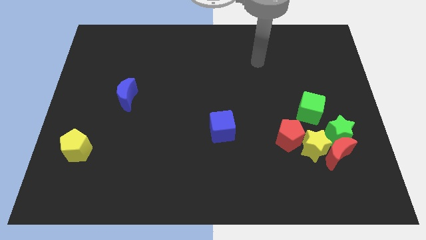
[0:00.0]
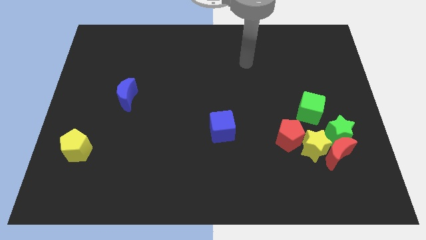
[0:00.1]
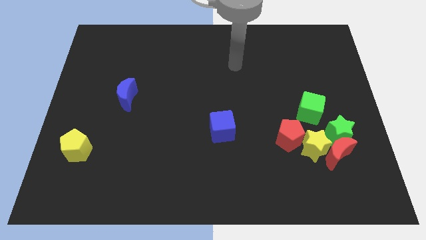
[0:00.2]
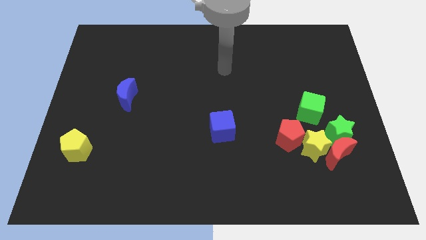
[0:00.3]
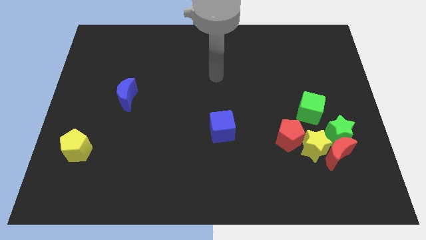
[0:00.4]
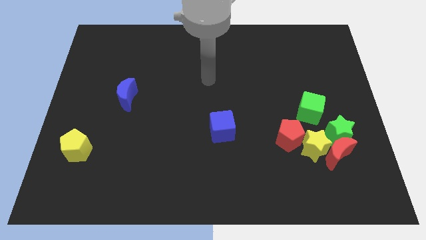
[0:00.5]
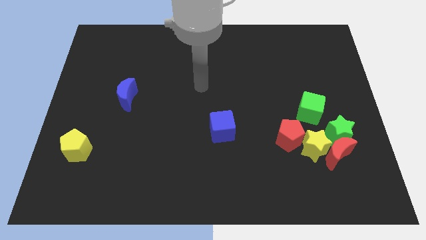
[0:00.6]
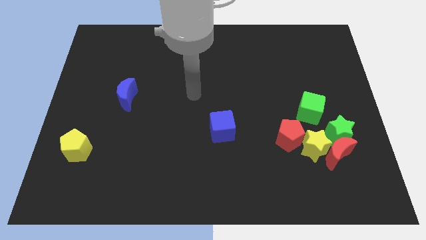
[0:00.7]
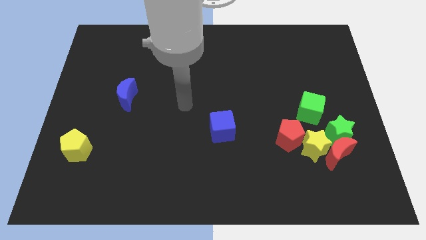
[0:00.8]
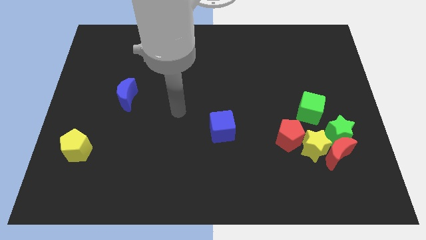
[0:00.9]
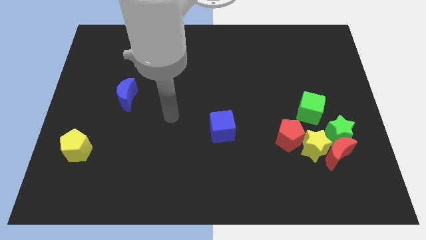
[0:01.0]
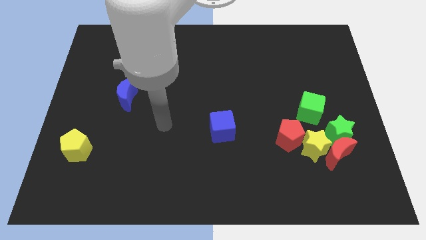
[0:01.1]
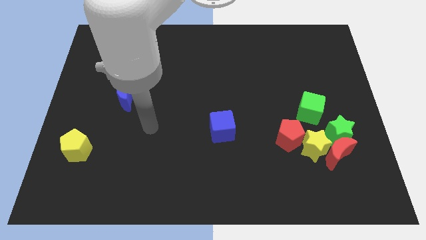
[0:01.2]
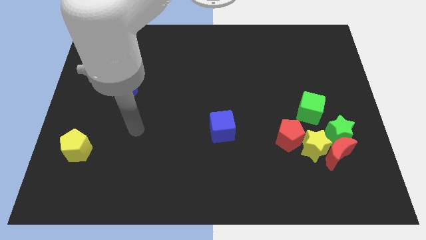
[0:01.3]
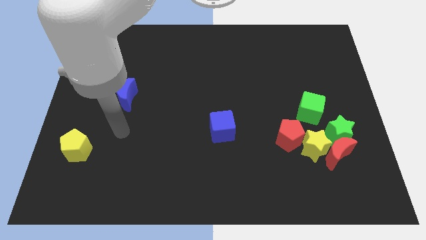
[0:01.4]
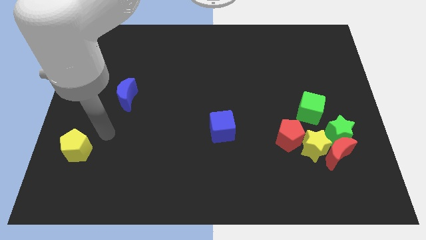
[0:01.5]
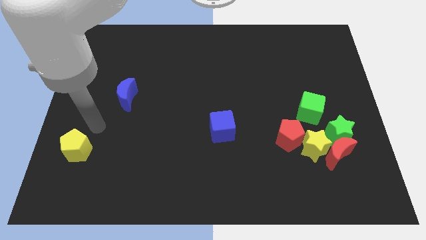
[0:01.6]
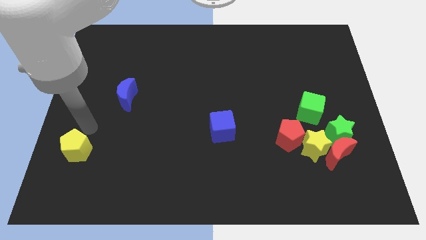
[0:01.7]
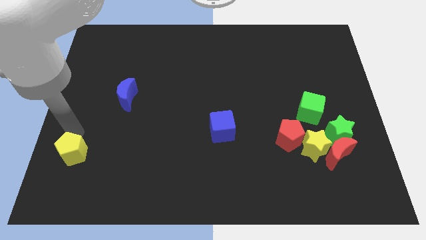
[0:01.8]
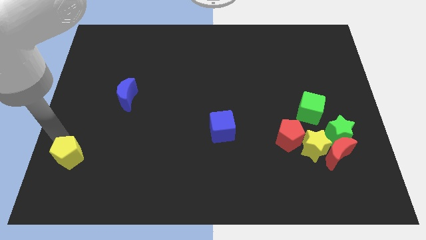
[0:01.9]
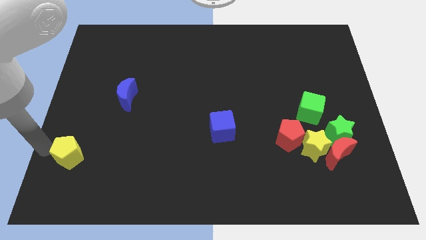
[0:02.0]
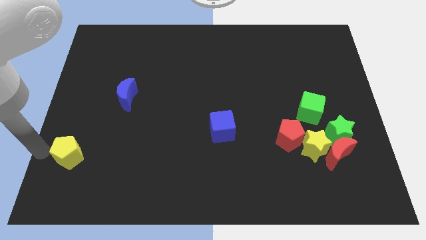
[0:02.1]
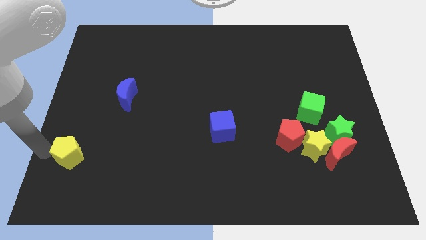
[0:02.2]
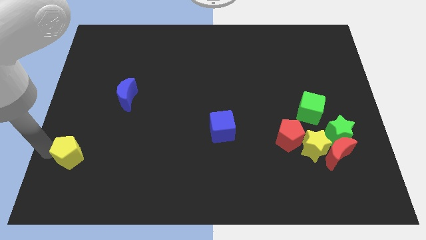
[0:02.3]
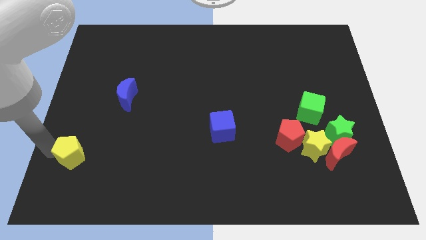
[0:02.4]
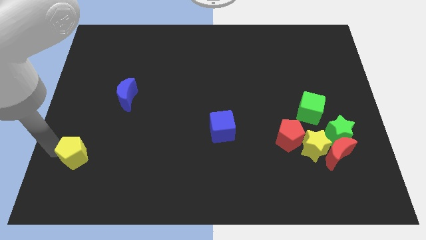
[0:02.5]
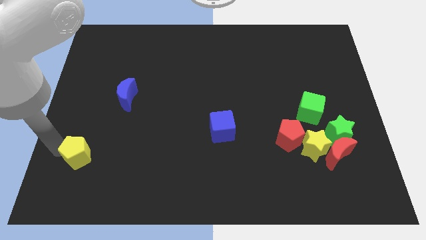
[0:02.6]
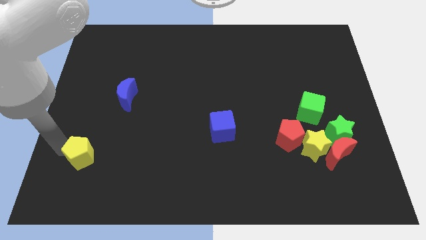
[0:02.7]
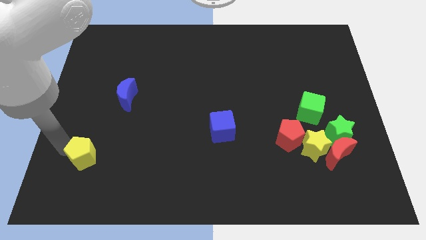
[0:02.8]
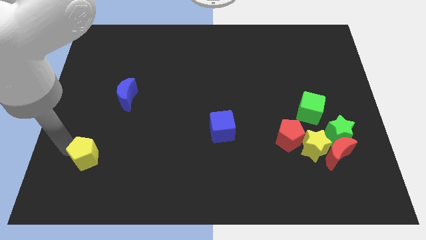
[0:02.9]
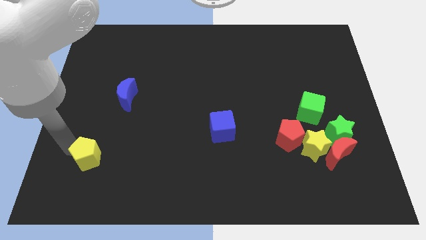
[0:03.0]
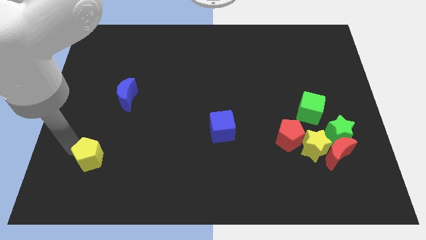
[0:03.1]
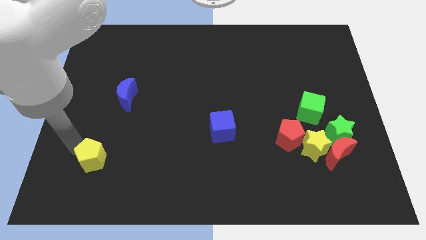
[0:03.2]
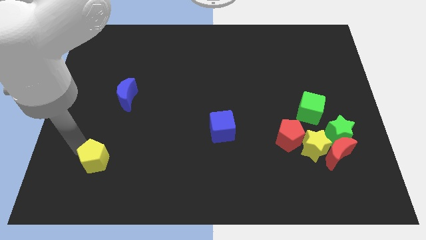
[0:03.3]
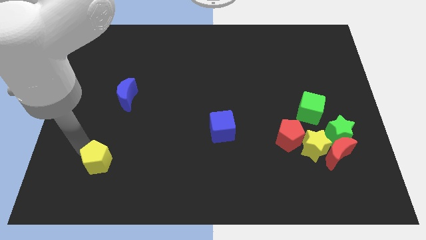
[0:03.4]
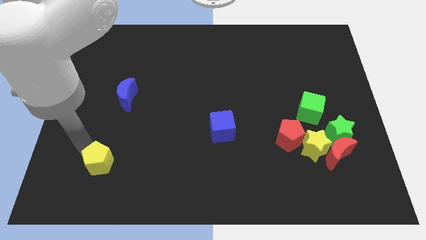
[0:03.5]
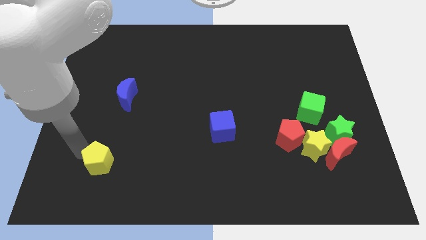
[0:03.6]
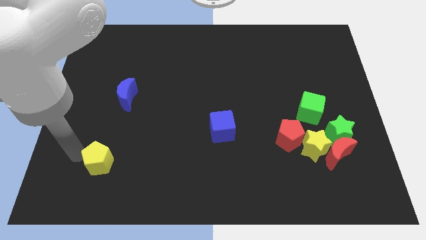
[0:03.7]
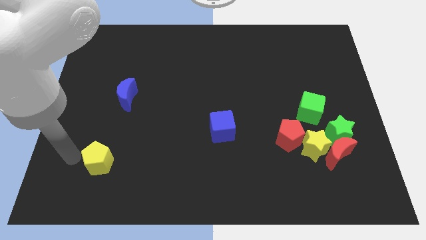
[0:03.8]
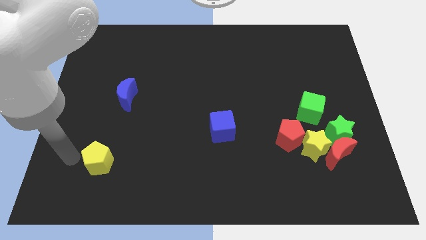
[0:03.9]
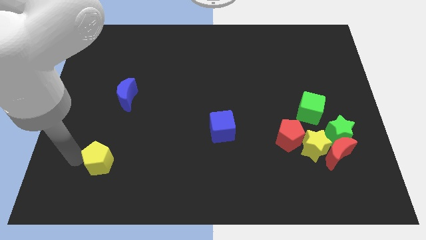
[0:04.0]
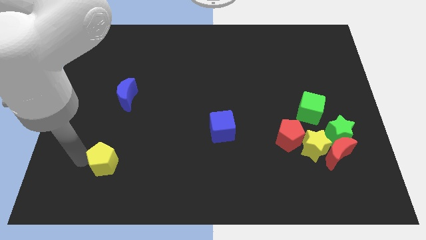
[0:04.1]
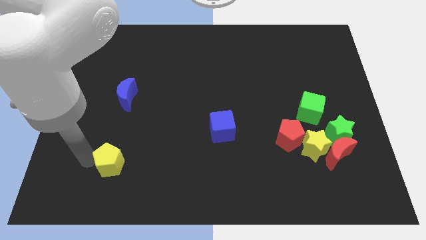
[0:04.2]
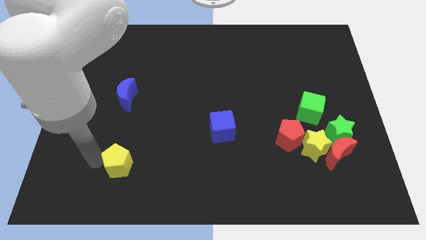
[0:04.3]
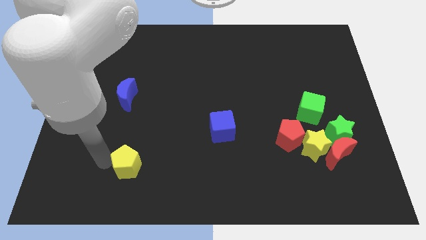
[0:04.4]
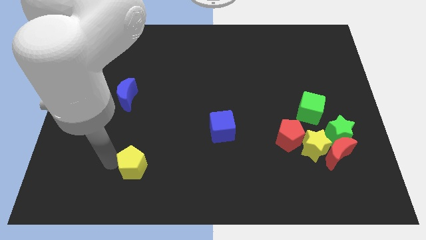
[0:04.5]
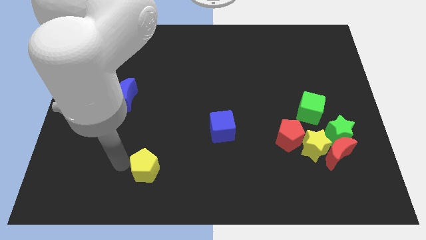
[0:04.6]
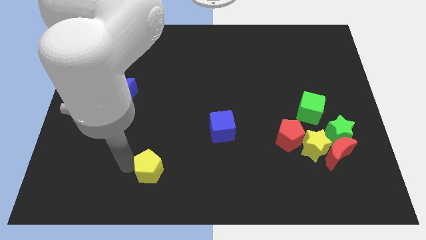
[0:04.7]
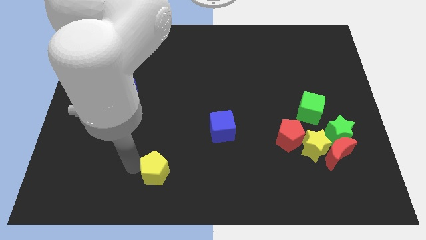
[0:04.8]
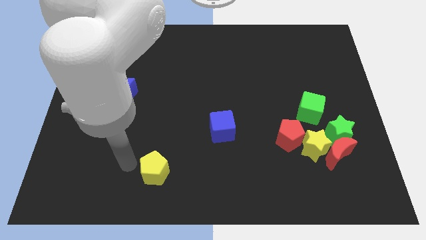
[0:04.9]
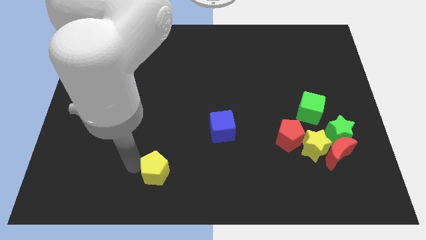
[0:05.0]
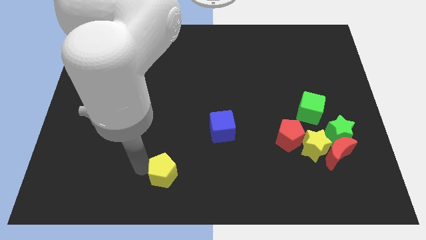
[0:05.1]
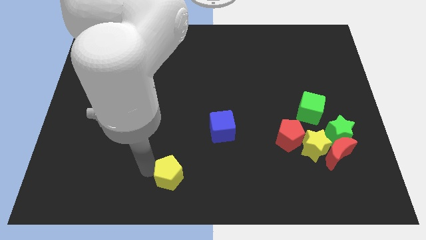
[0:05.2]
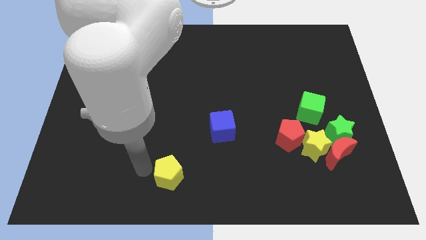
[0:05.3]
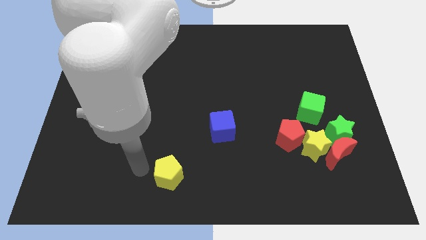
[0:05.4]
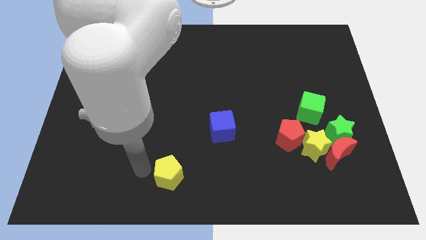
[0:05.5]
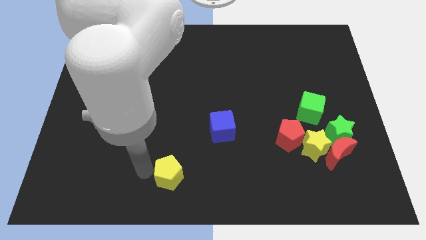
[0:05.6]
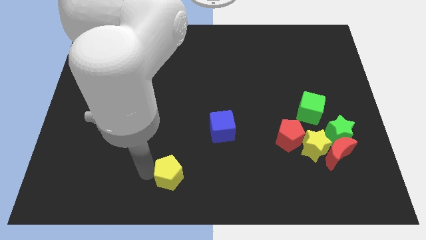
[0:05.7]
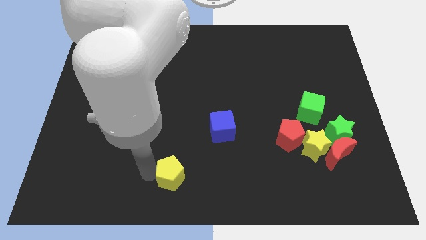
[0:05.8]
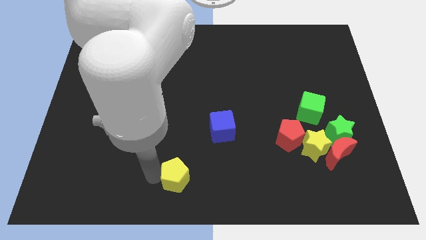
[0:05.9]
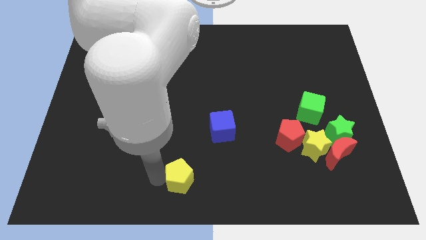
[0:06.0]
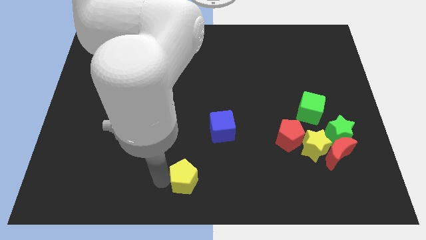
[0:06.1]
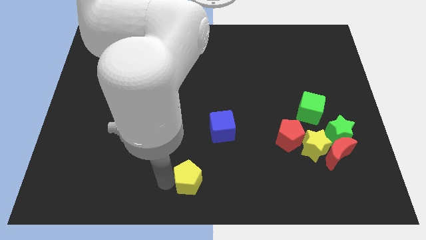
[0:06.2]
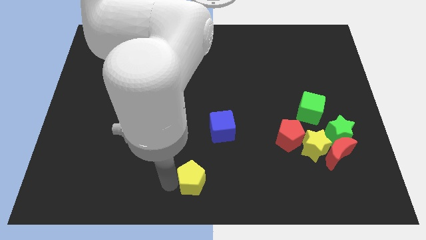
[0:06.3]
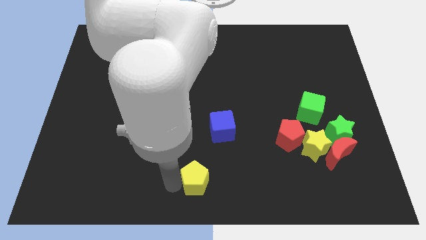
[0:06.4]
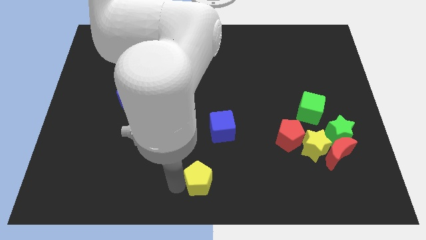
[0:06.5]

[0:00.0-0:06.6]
slide the yellow pentagon to the bottom side of the blue cube

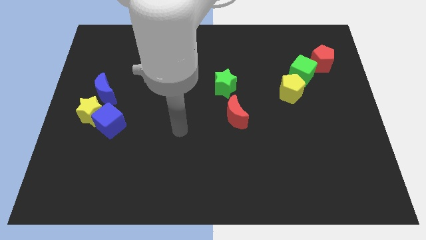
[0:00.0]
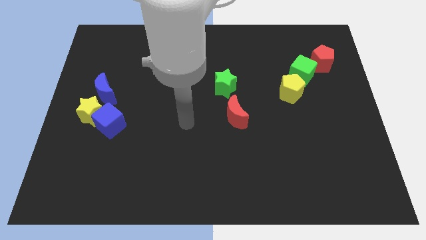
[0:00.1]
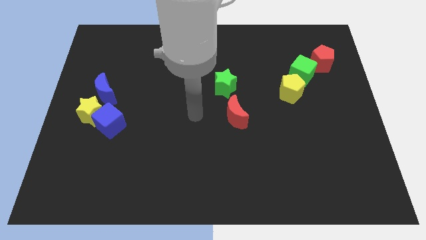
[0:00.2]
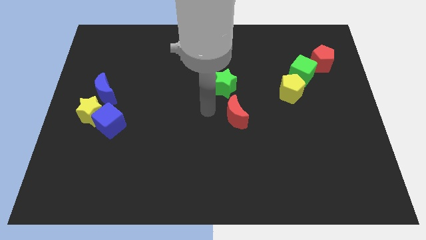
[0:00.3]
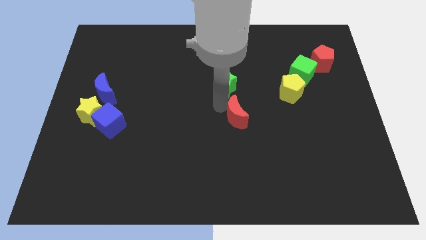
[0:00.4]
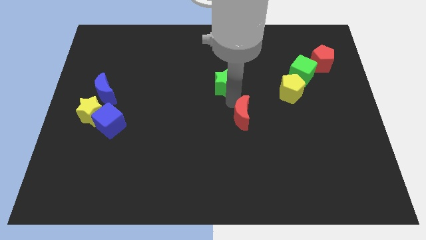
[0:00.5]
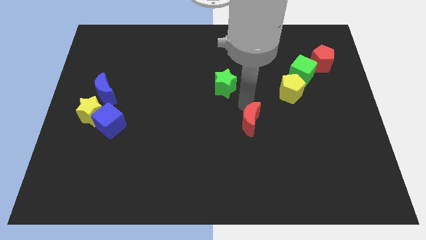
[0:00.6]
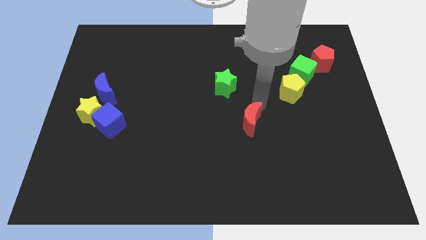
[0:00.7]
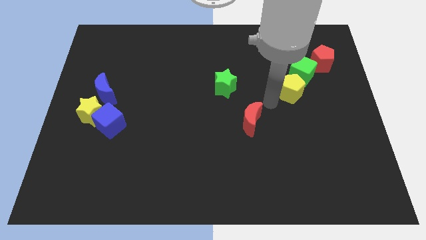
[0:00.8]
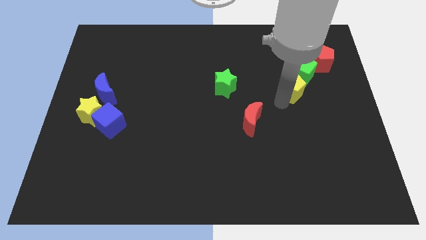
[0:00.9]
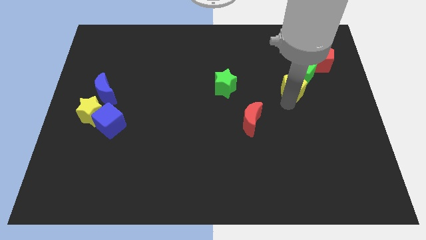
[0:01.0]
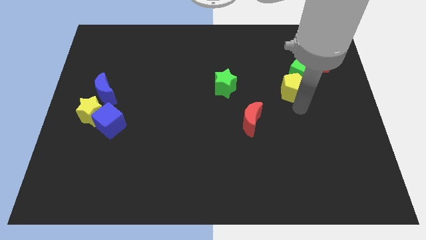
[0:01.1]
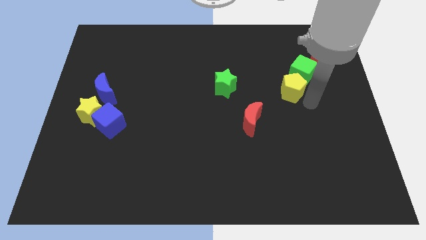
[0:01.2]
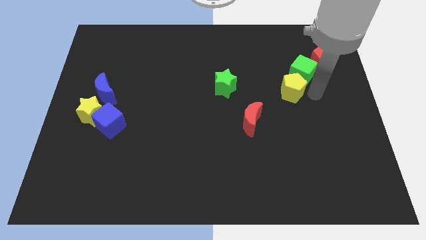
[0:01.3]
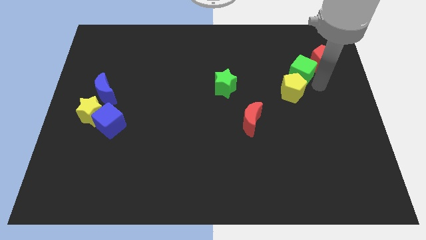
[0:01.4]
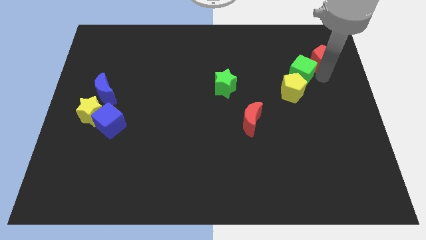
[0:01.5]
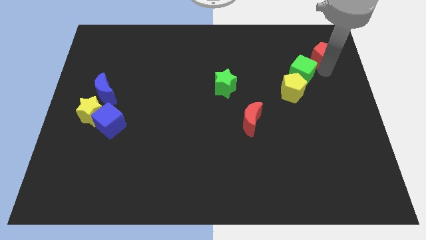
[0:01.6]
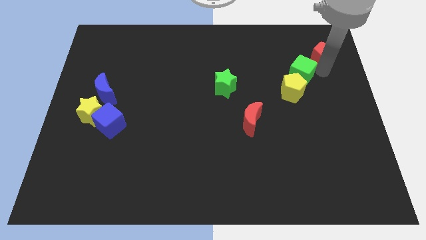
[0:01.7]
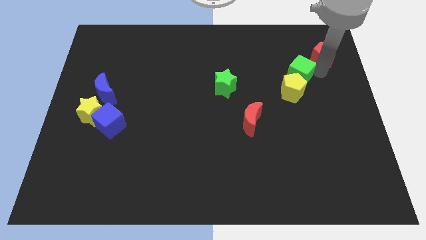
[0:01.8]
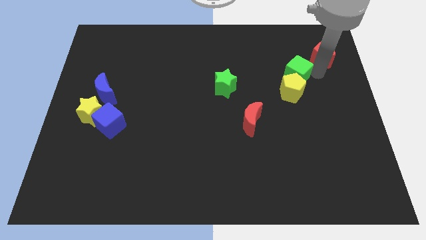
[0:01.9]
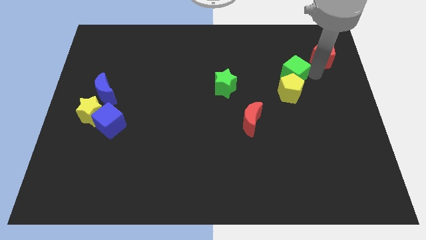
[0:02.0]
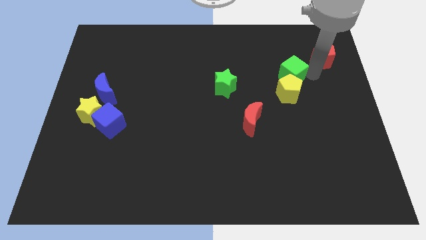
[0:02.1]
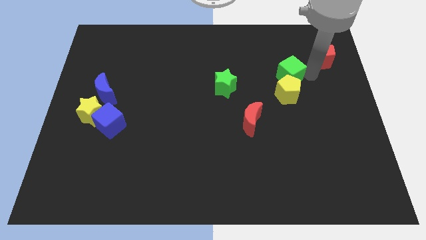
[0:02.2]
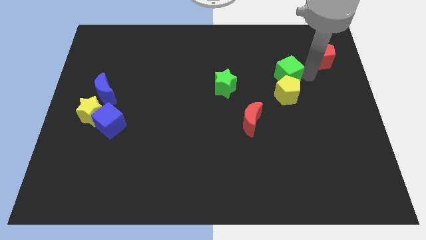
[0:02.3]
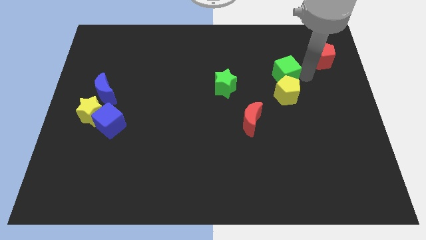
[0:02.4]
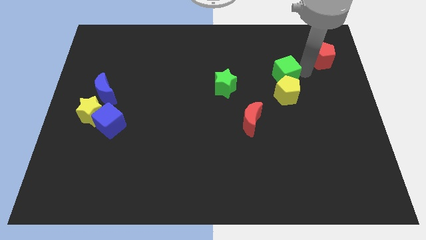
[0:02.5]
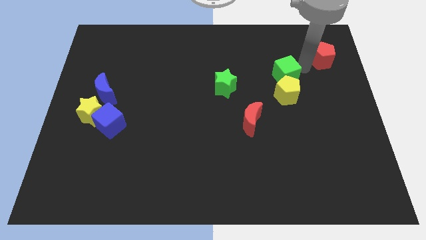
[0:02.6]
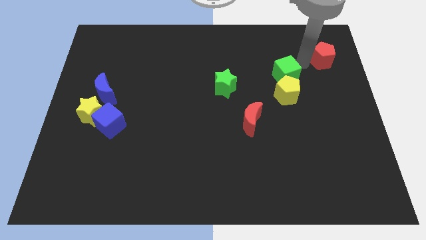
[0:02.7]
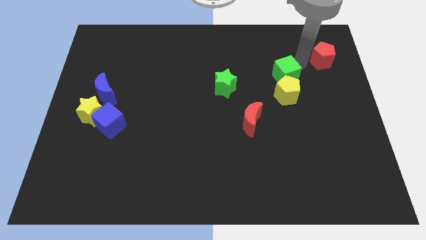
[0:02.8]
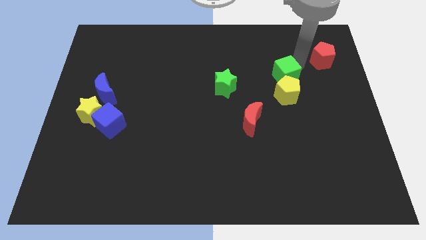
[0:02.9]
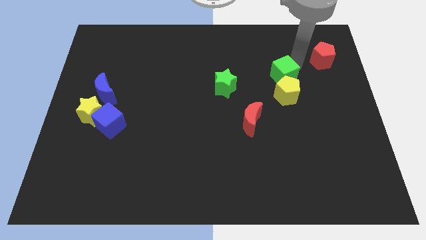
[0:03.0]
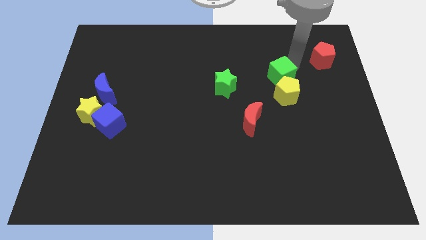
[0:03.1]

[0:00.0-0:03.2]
slide the green cube right of the green star
